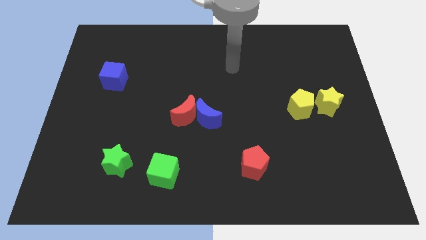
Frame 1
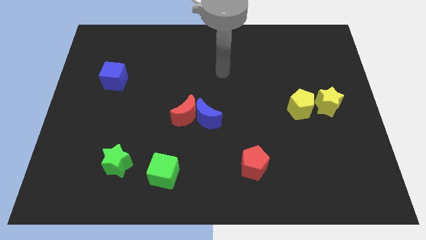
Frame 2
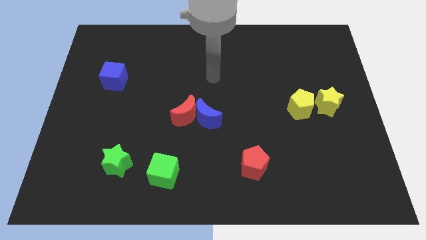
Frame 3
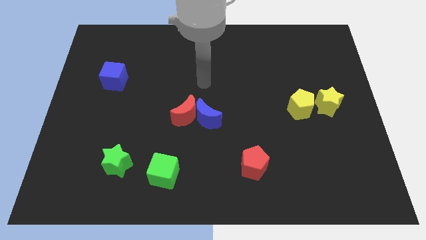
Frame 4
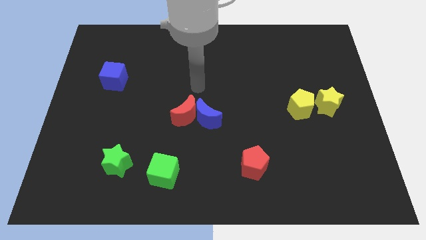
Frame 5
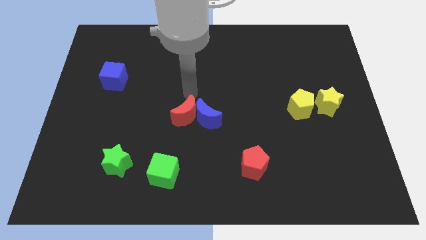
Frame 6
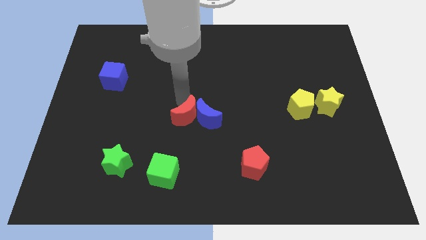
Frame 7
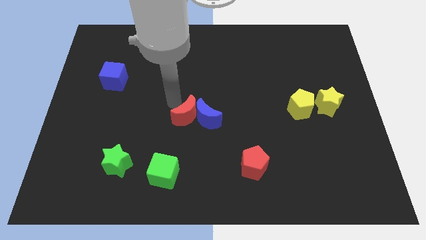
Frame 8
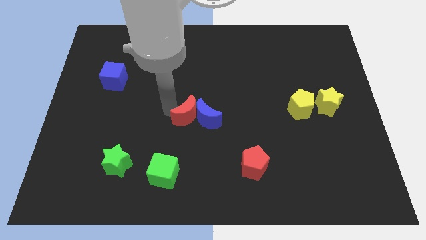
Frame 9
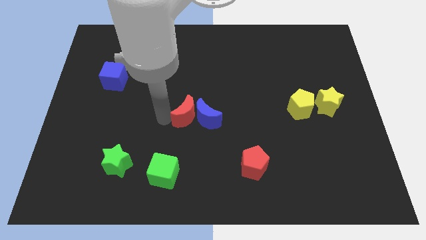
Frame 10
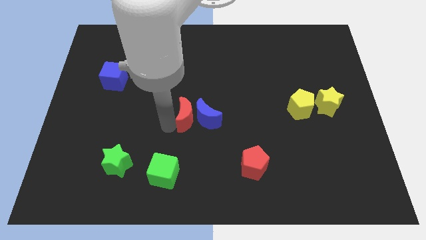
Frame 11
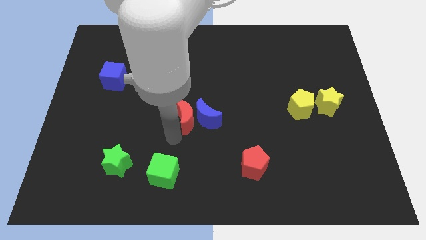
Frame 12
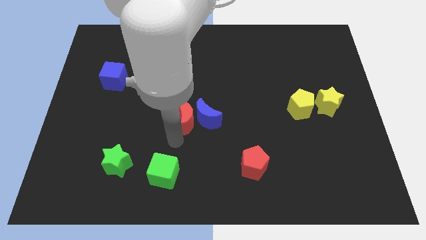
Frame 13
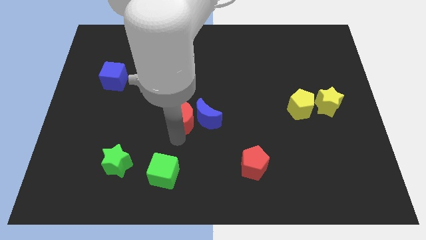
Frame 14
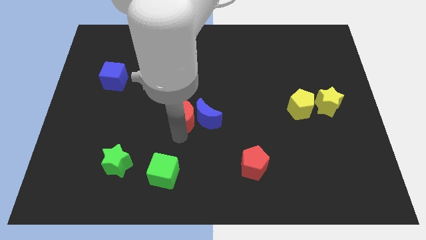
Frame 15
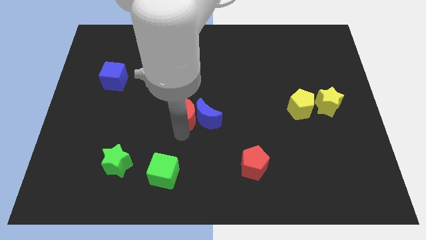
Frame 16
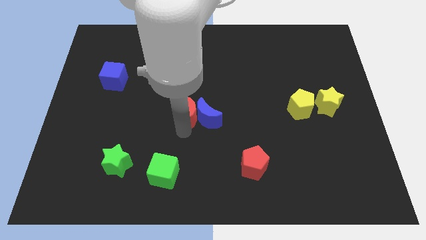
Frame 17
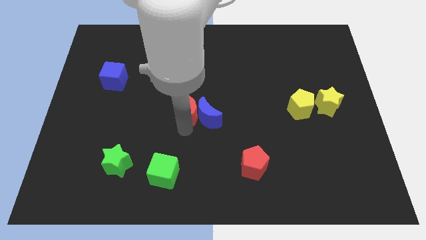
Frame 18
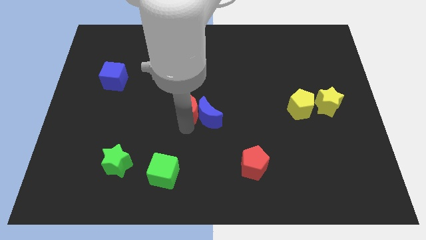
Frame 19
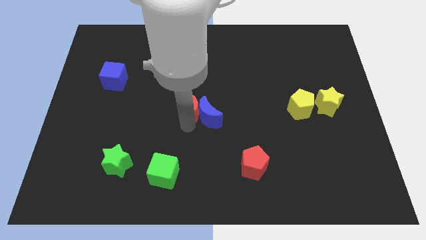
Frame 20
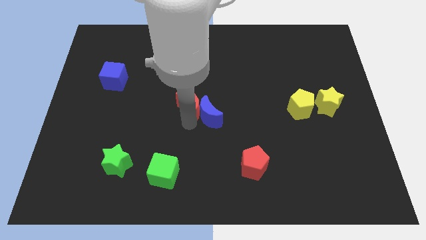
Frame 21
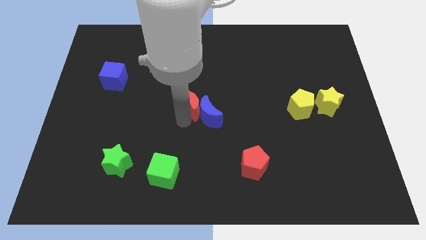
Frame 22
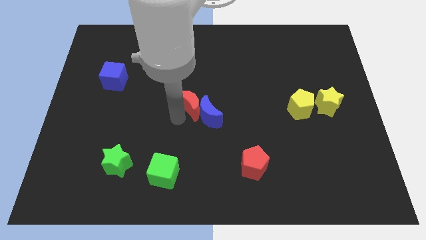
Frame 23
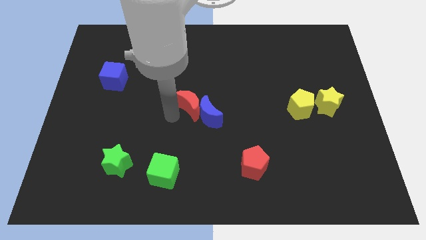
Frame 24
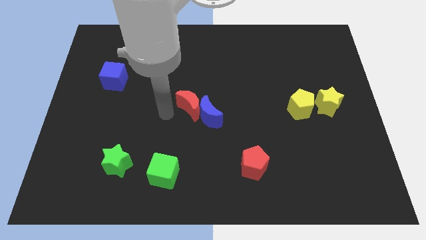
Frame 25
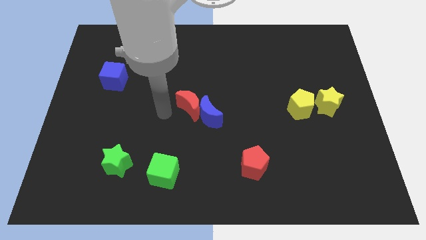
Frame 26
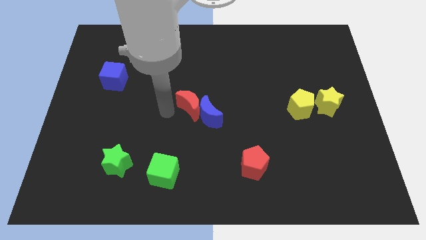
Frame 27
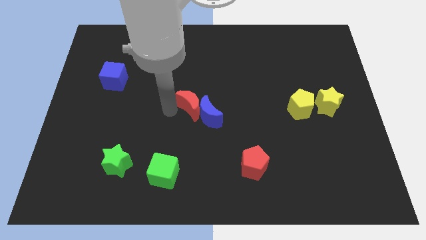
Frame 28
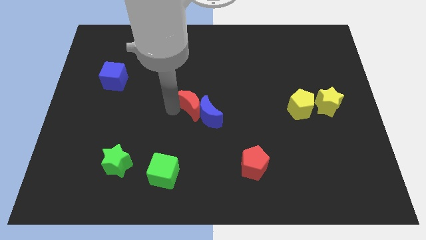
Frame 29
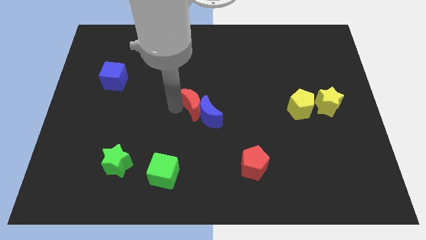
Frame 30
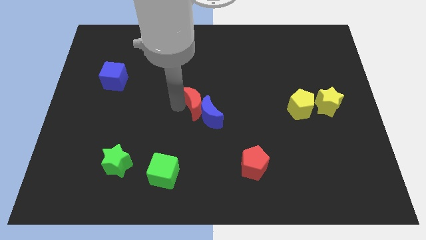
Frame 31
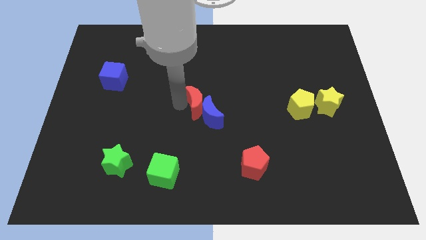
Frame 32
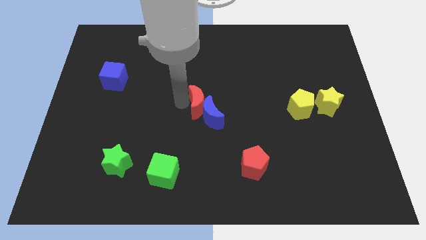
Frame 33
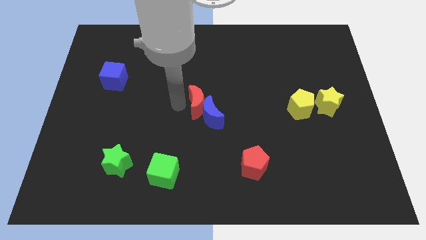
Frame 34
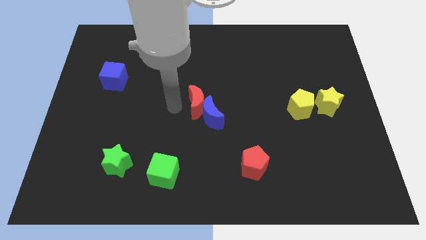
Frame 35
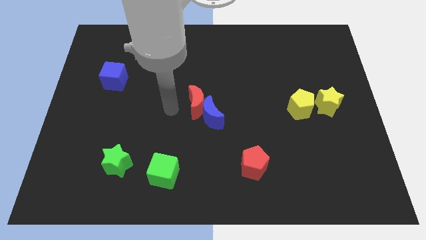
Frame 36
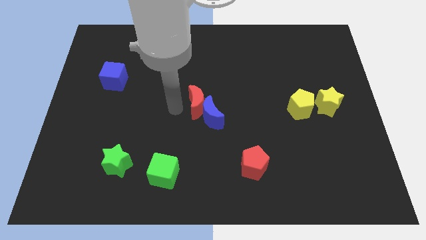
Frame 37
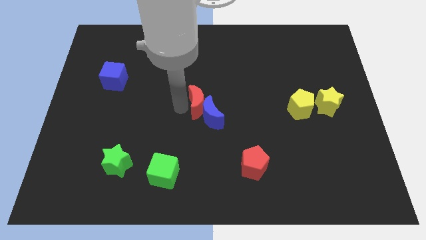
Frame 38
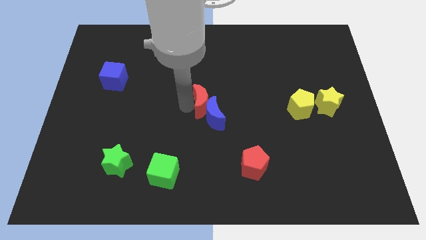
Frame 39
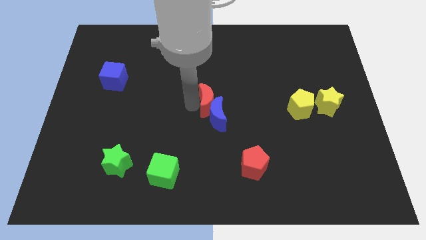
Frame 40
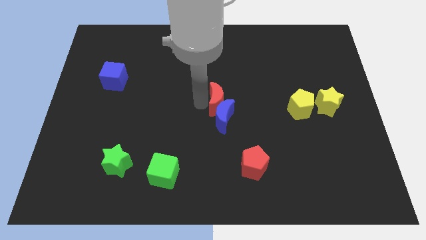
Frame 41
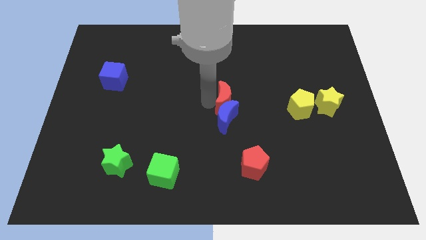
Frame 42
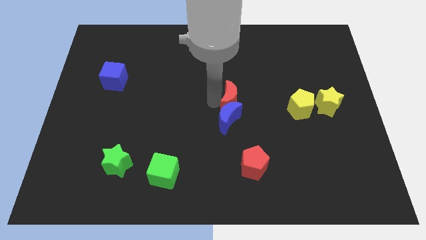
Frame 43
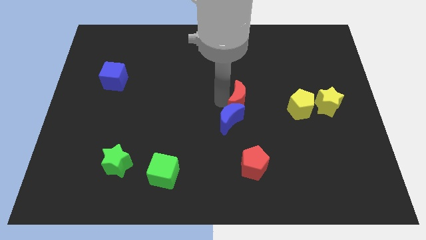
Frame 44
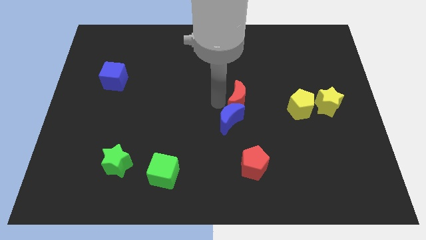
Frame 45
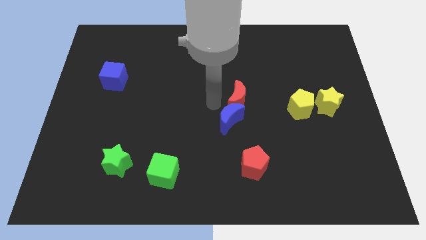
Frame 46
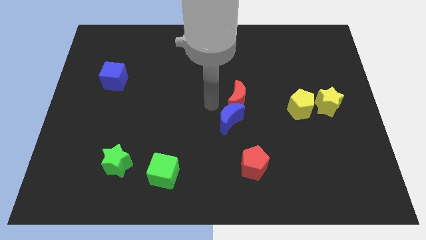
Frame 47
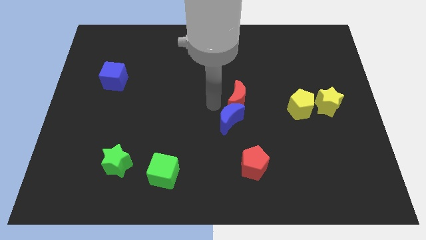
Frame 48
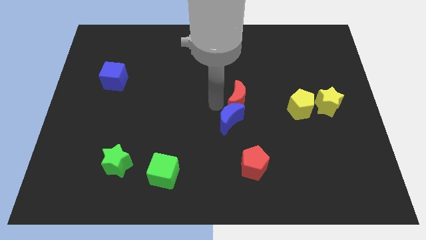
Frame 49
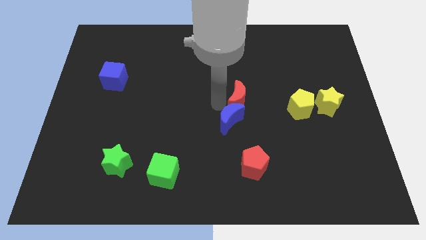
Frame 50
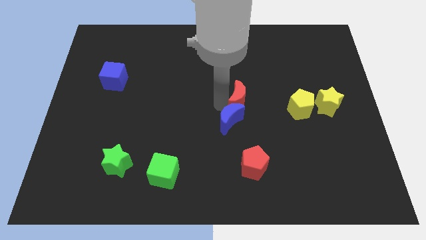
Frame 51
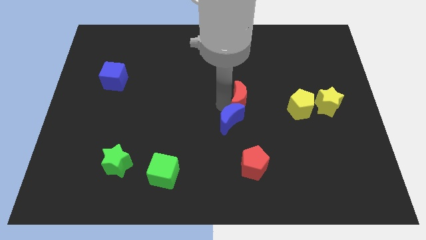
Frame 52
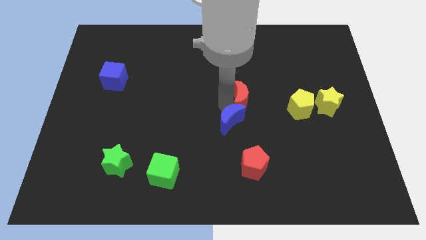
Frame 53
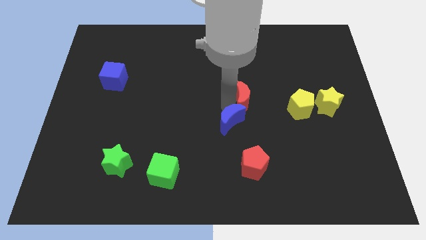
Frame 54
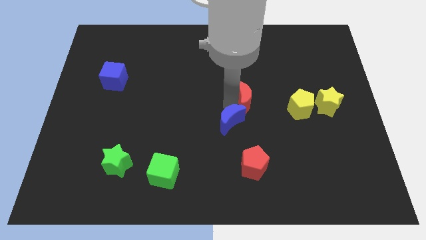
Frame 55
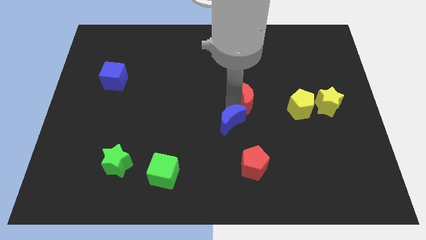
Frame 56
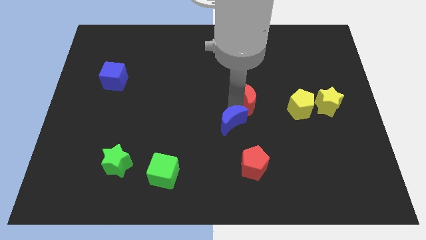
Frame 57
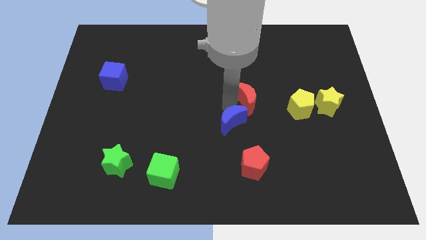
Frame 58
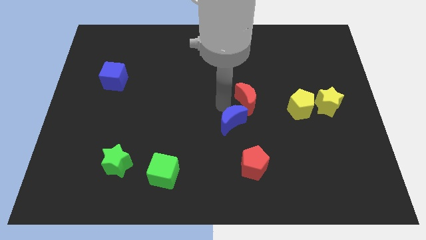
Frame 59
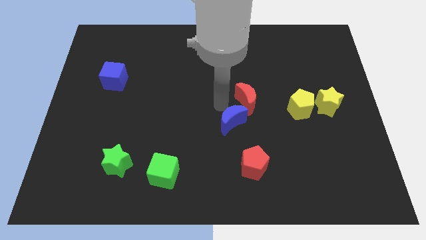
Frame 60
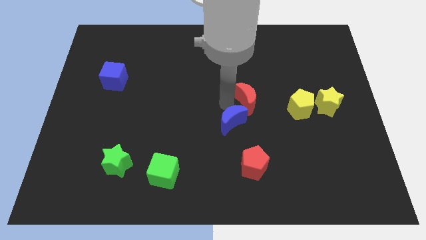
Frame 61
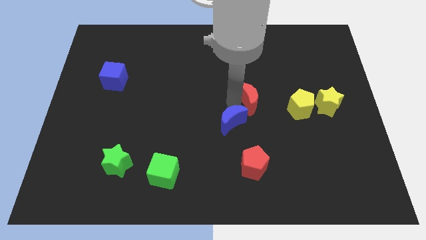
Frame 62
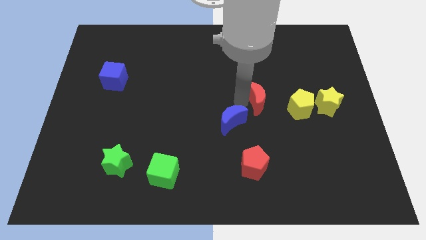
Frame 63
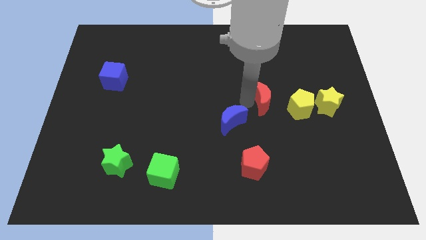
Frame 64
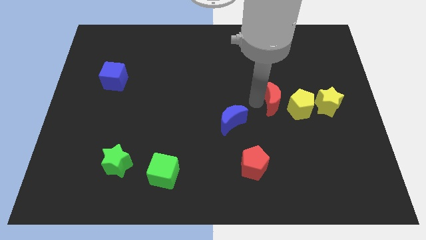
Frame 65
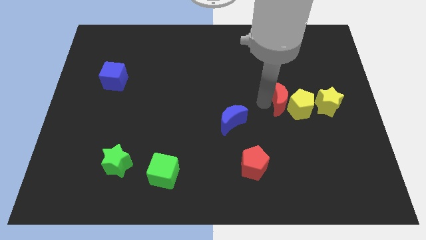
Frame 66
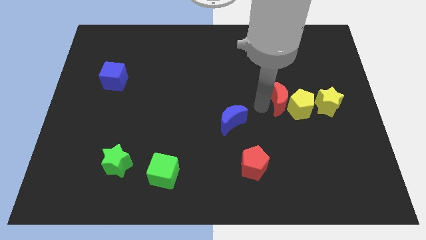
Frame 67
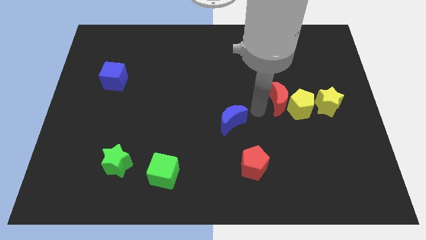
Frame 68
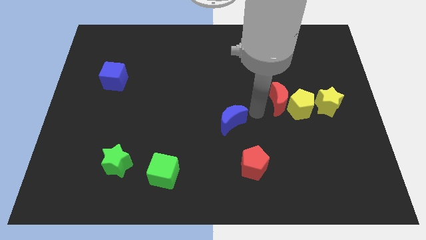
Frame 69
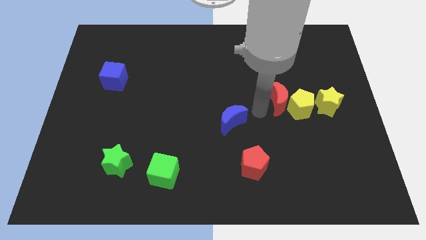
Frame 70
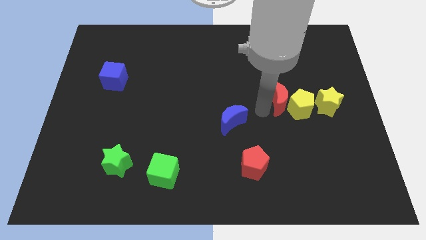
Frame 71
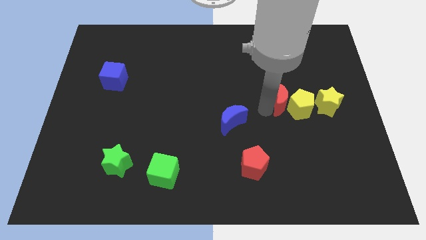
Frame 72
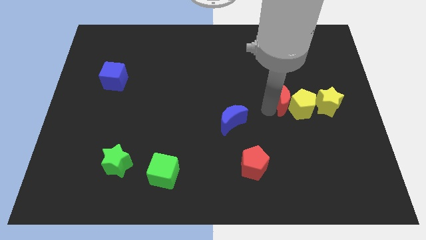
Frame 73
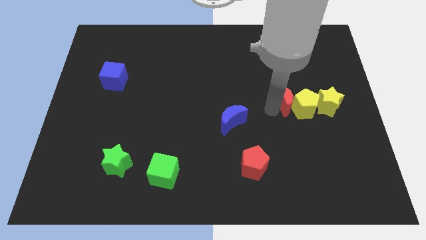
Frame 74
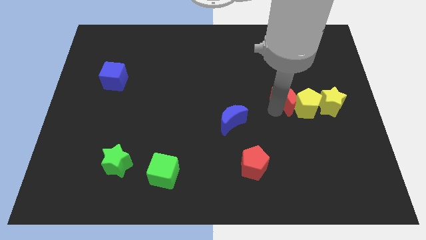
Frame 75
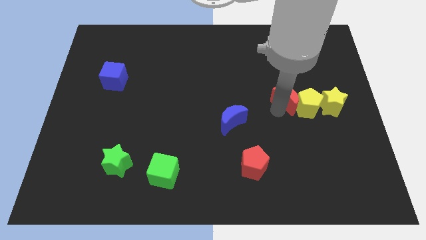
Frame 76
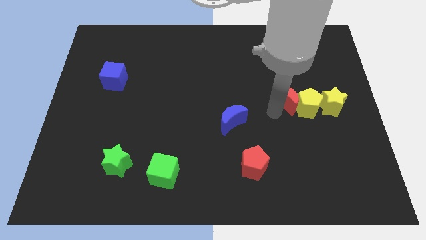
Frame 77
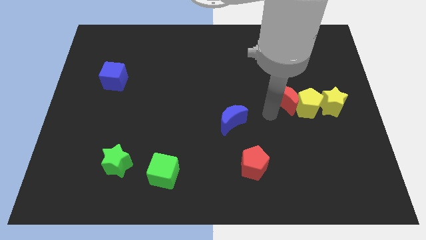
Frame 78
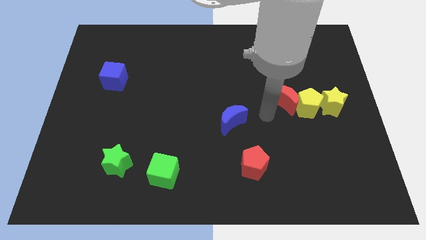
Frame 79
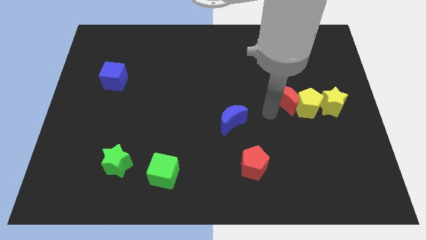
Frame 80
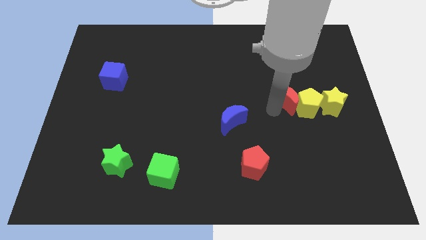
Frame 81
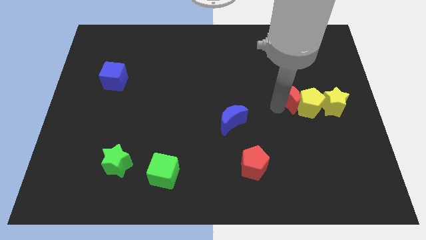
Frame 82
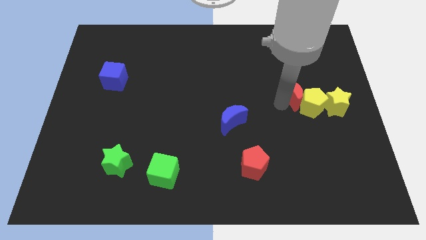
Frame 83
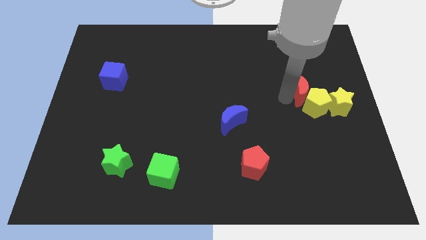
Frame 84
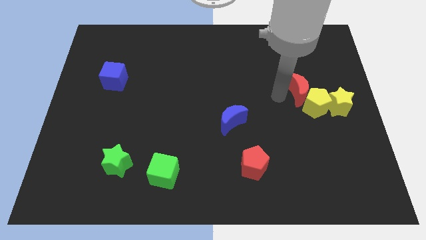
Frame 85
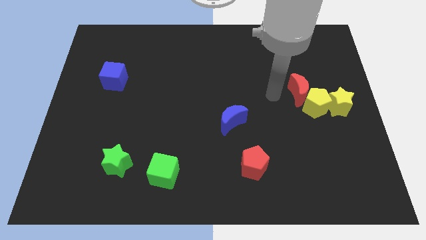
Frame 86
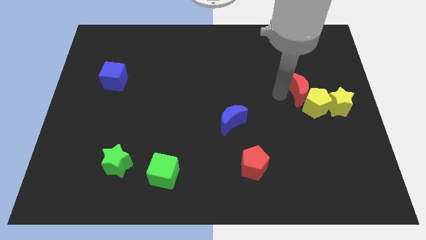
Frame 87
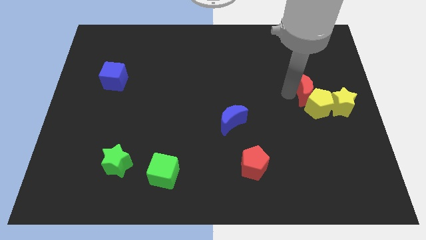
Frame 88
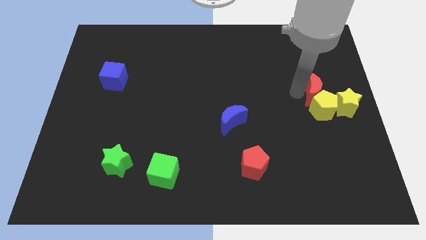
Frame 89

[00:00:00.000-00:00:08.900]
slide the red moon diagonally up and to the right of the yellow pentagon
